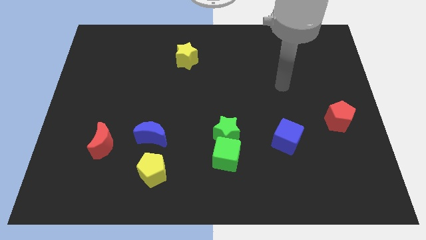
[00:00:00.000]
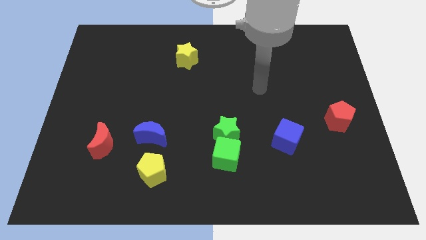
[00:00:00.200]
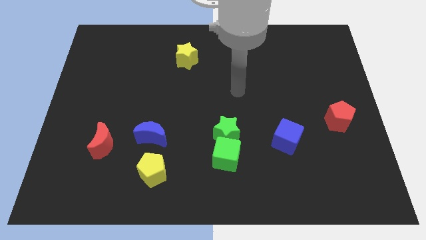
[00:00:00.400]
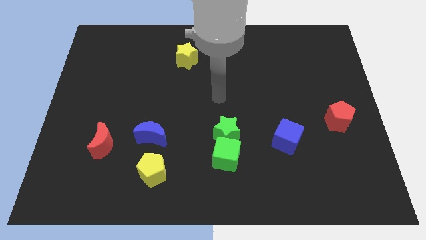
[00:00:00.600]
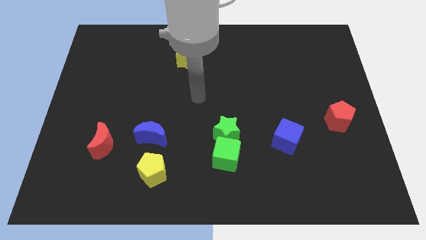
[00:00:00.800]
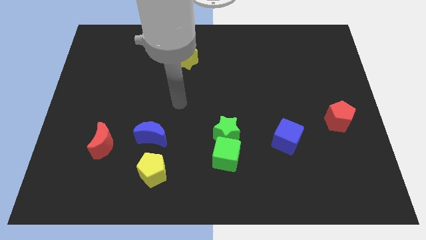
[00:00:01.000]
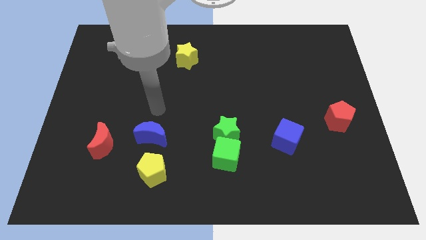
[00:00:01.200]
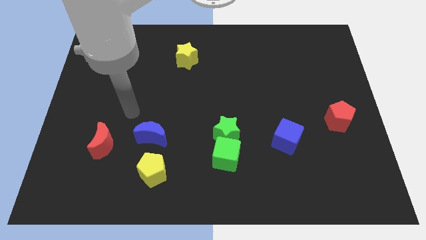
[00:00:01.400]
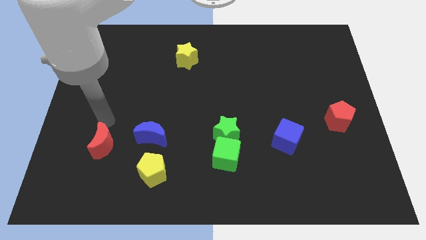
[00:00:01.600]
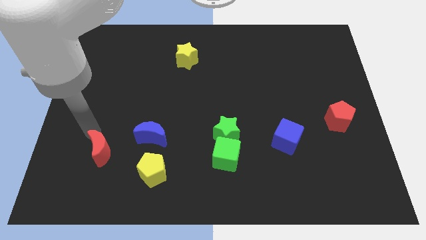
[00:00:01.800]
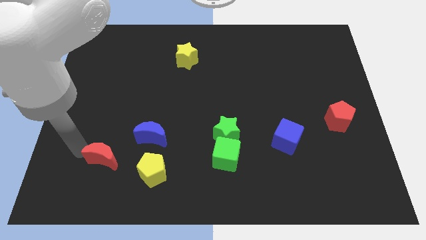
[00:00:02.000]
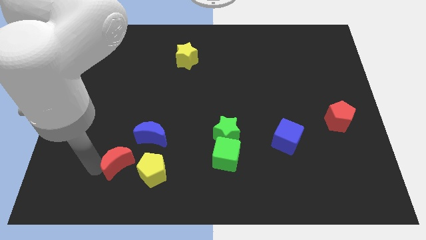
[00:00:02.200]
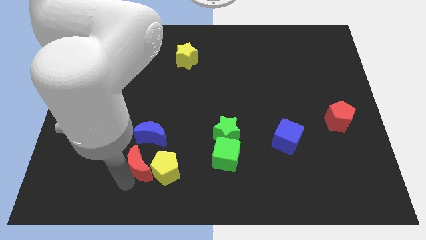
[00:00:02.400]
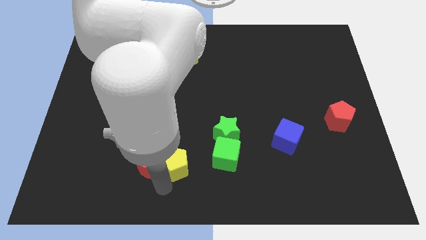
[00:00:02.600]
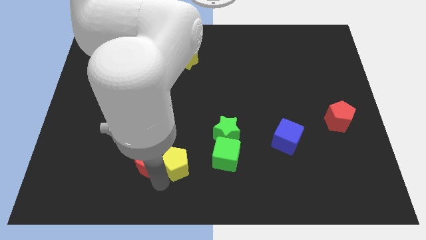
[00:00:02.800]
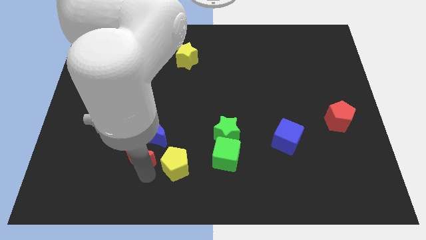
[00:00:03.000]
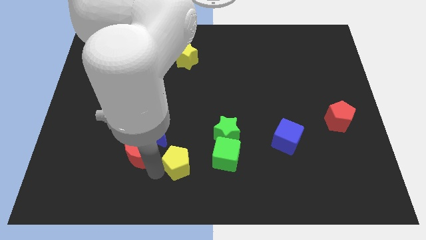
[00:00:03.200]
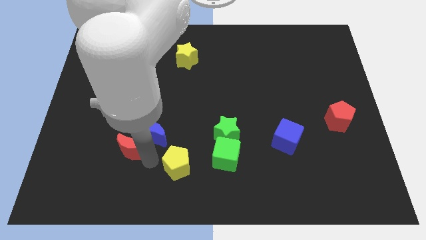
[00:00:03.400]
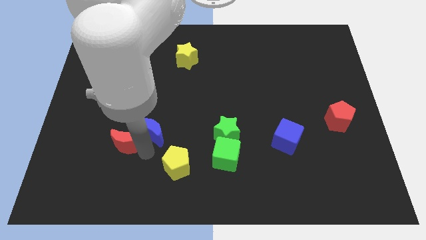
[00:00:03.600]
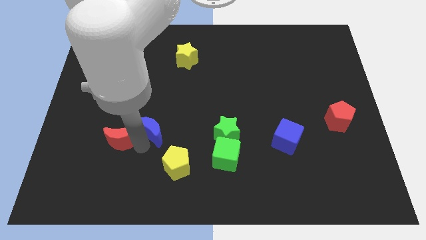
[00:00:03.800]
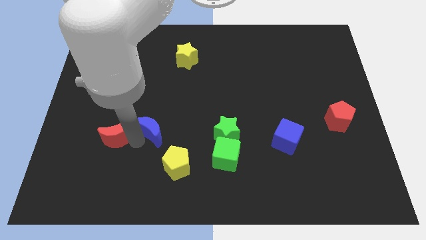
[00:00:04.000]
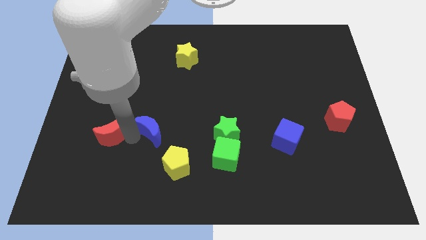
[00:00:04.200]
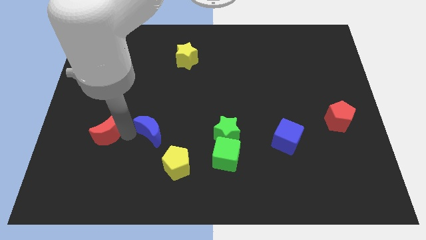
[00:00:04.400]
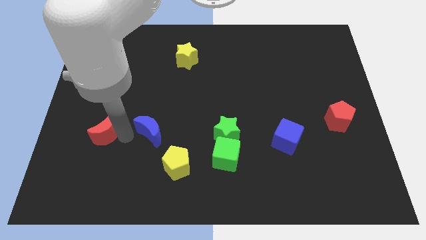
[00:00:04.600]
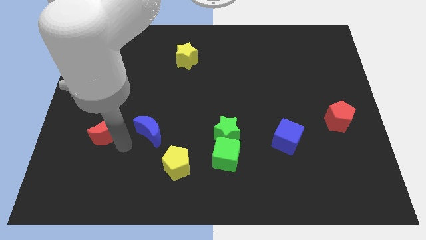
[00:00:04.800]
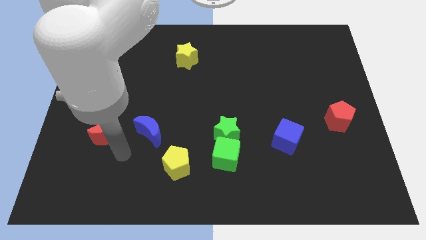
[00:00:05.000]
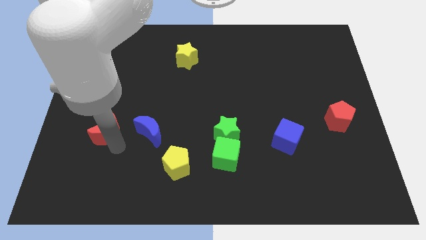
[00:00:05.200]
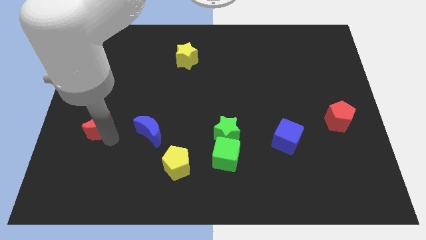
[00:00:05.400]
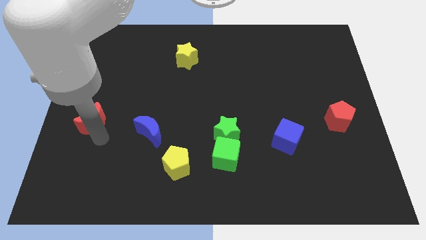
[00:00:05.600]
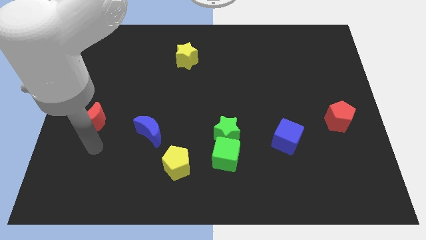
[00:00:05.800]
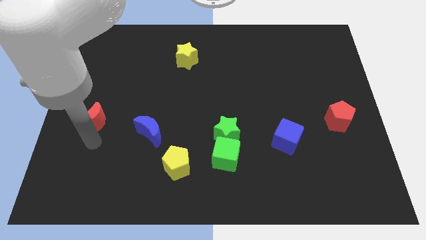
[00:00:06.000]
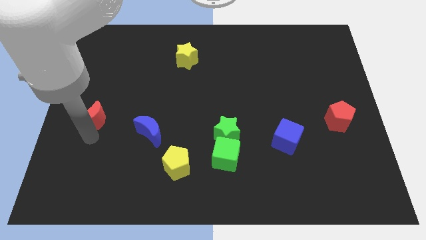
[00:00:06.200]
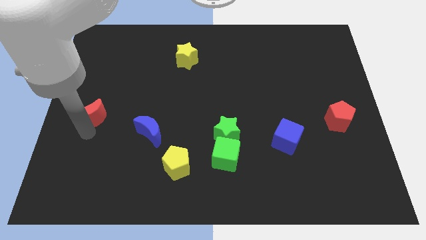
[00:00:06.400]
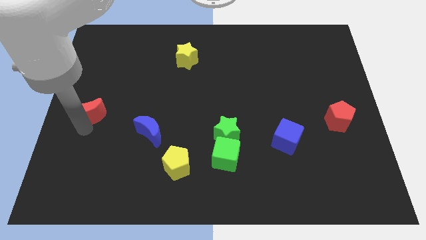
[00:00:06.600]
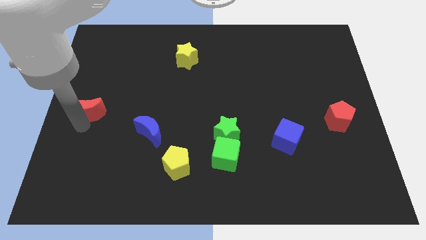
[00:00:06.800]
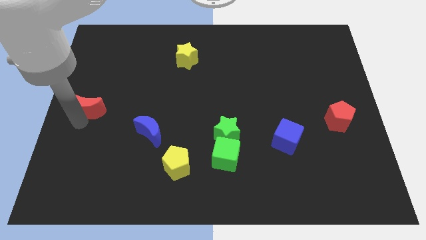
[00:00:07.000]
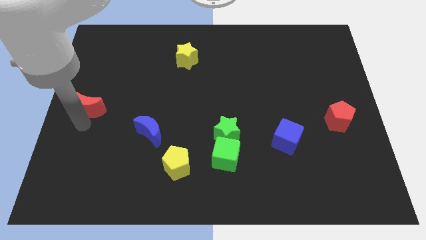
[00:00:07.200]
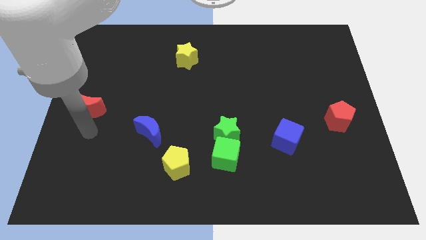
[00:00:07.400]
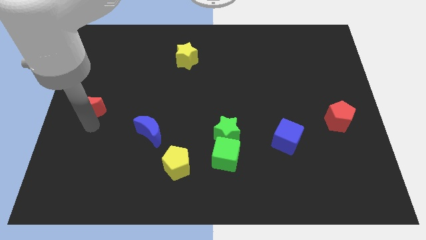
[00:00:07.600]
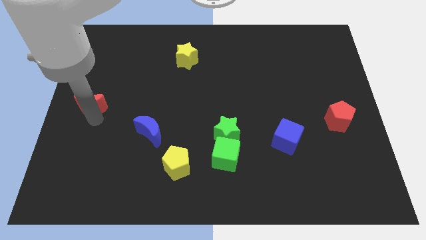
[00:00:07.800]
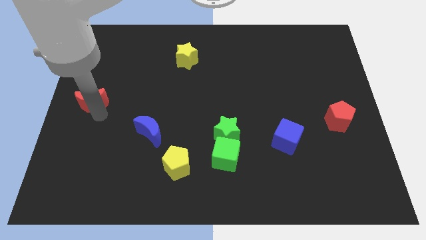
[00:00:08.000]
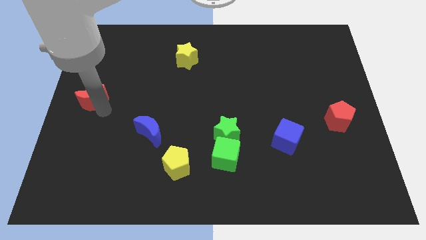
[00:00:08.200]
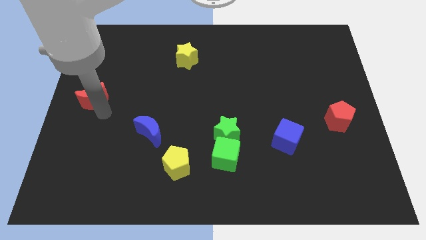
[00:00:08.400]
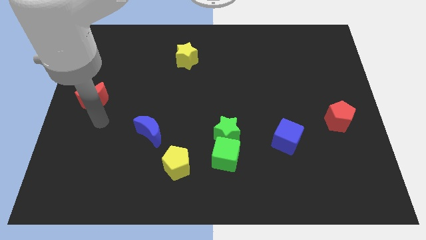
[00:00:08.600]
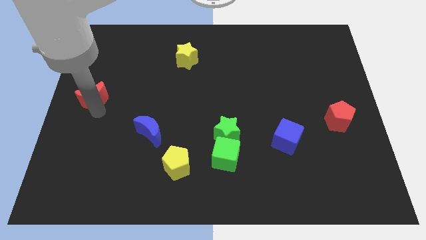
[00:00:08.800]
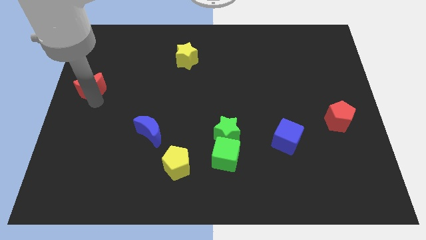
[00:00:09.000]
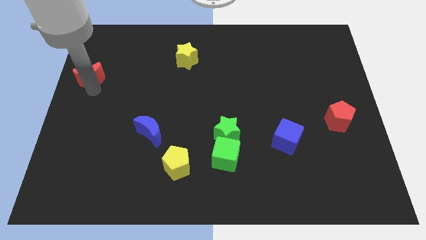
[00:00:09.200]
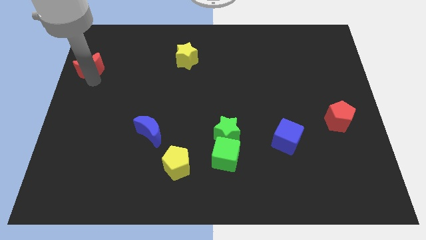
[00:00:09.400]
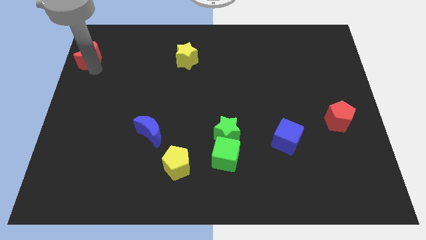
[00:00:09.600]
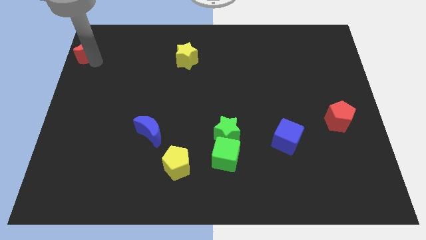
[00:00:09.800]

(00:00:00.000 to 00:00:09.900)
push the red moon to the top left
